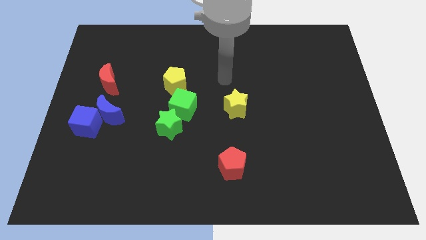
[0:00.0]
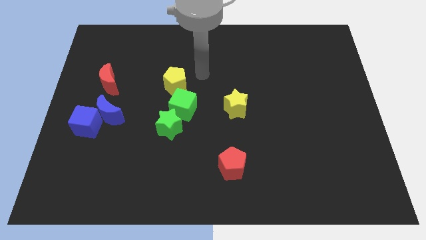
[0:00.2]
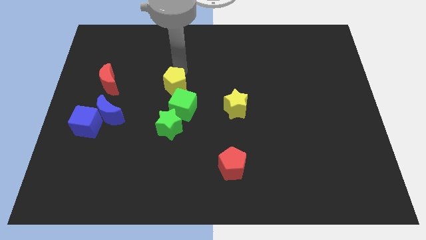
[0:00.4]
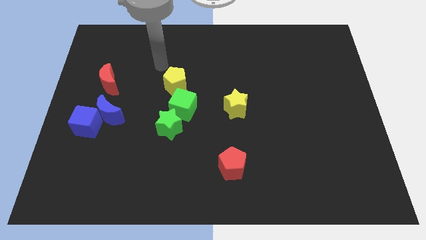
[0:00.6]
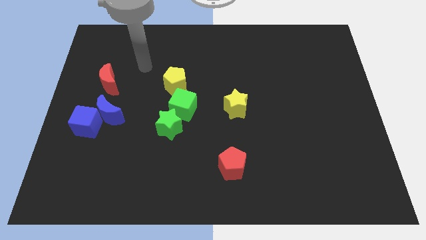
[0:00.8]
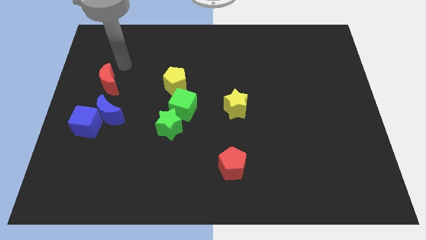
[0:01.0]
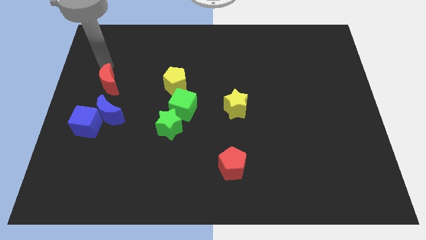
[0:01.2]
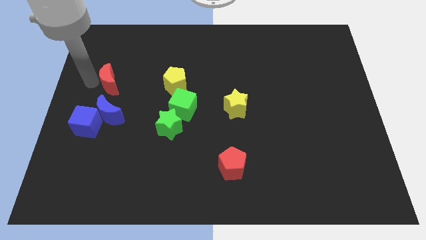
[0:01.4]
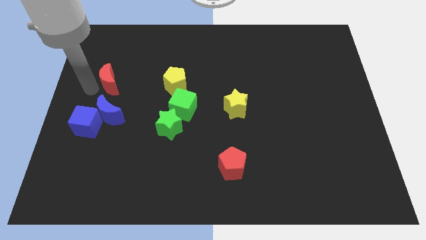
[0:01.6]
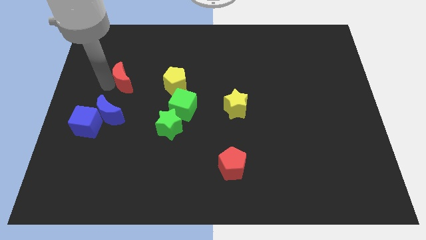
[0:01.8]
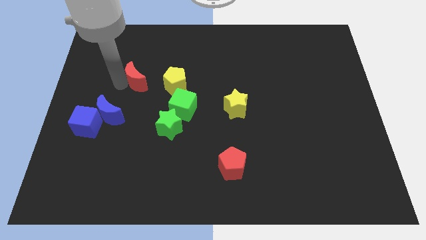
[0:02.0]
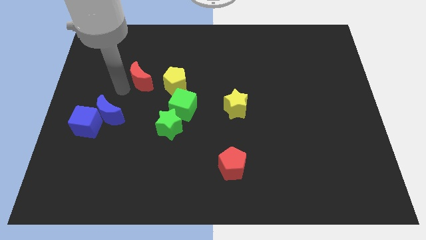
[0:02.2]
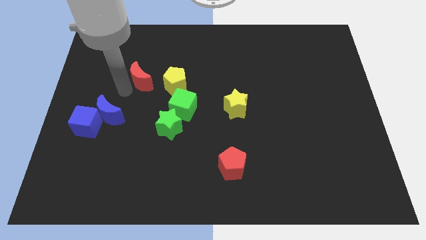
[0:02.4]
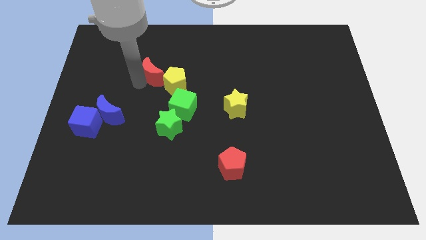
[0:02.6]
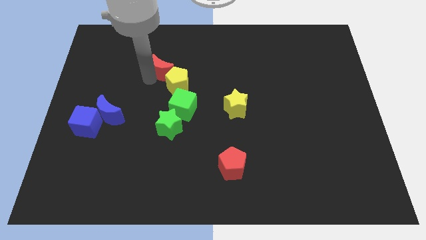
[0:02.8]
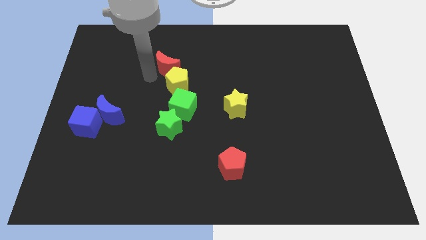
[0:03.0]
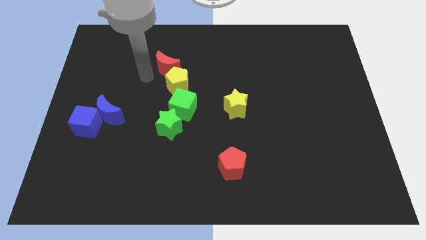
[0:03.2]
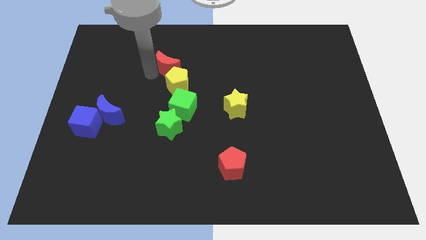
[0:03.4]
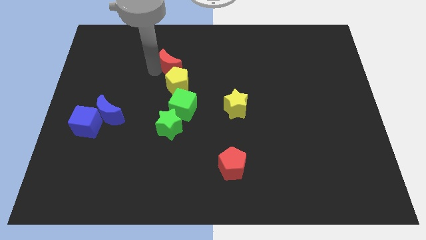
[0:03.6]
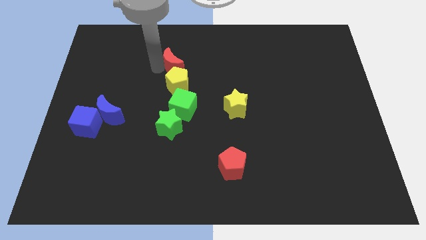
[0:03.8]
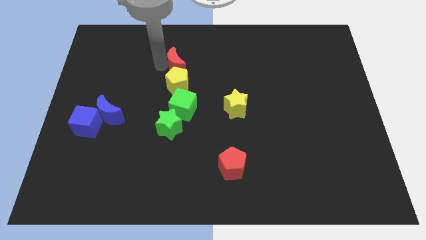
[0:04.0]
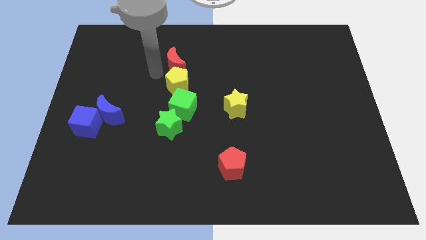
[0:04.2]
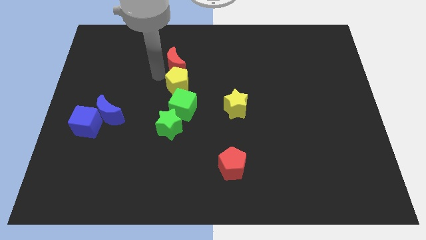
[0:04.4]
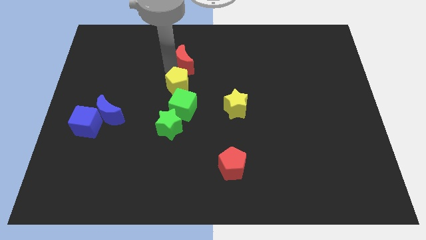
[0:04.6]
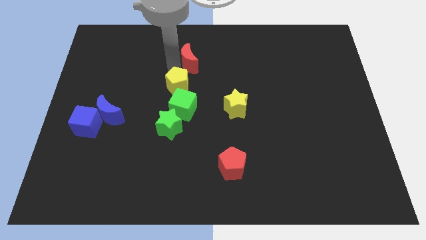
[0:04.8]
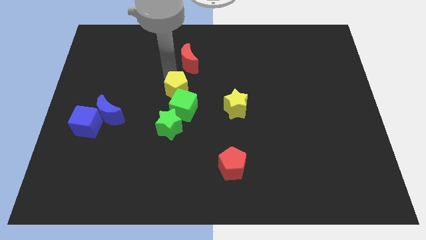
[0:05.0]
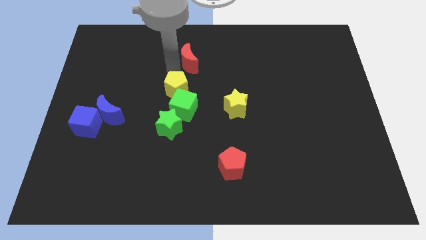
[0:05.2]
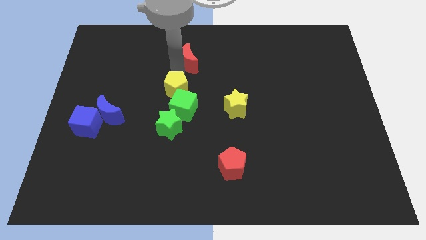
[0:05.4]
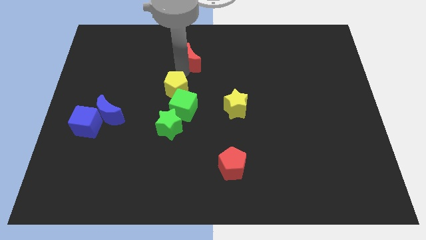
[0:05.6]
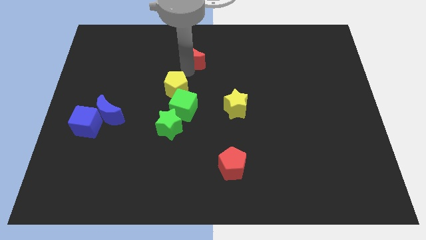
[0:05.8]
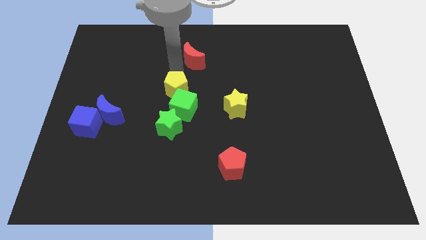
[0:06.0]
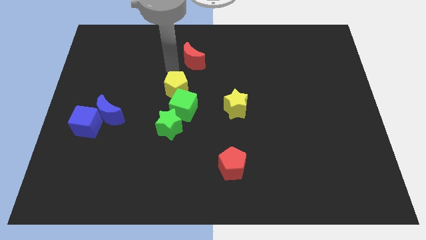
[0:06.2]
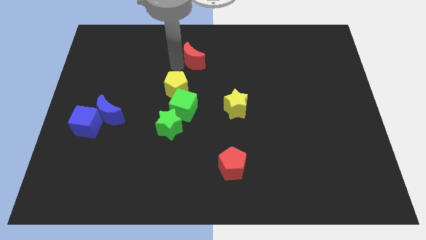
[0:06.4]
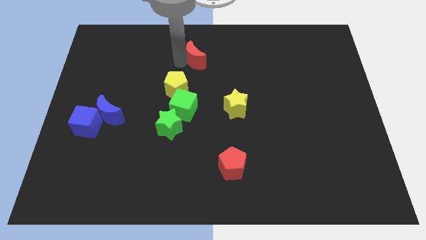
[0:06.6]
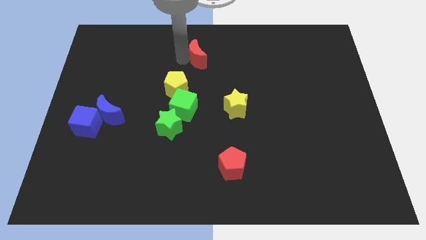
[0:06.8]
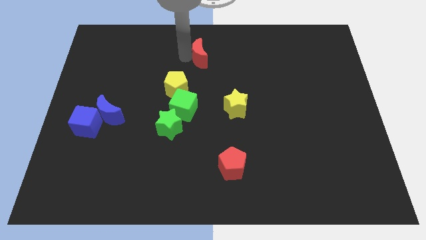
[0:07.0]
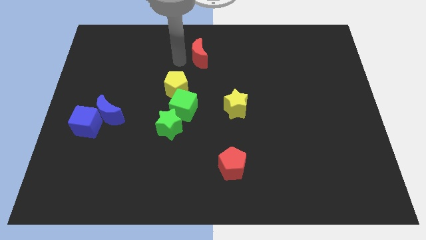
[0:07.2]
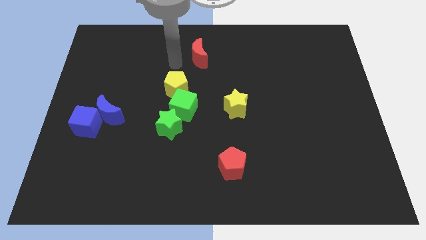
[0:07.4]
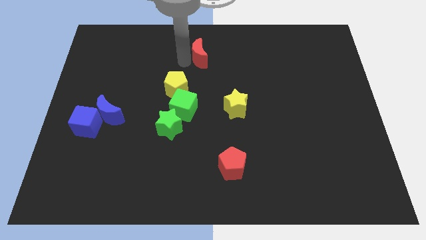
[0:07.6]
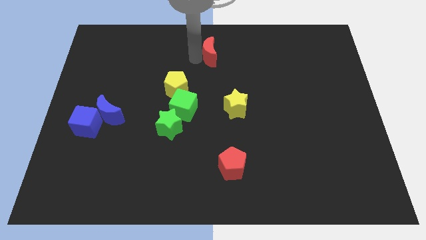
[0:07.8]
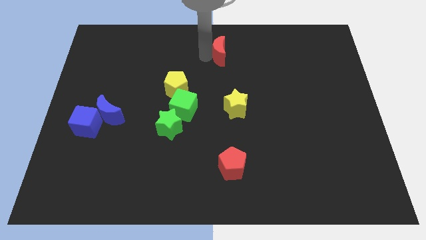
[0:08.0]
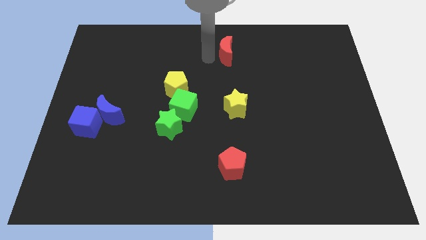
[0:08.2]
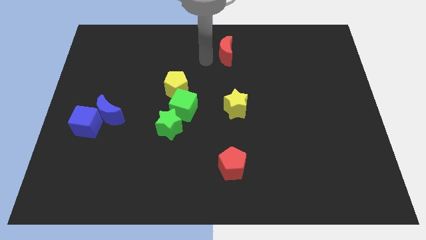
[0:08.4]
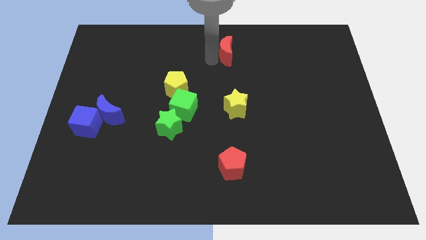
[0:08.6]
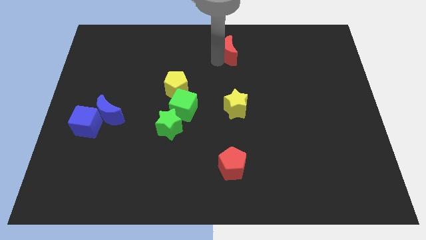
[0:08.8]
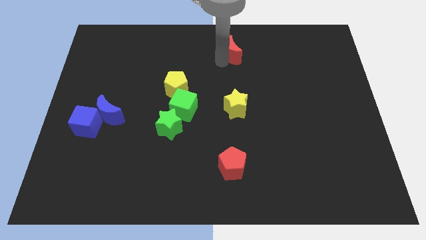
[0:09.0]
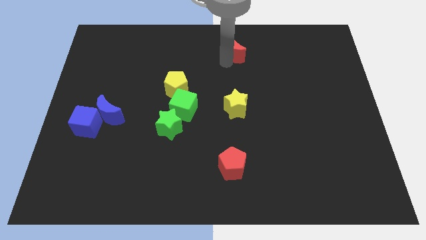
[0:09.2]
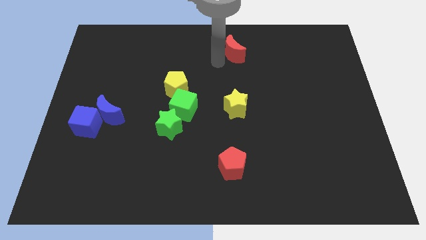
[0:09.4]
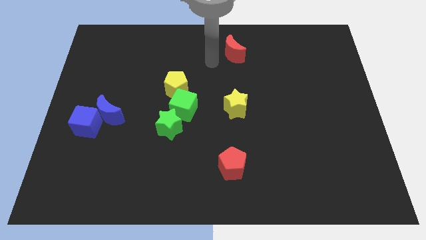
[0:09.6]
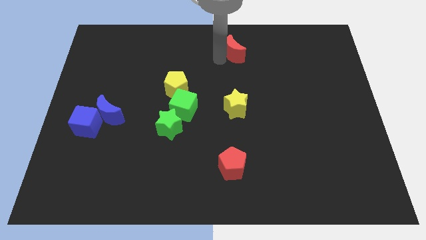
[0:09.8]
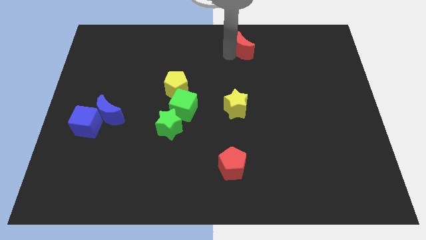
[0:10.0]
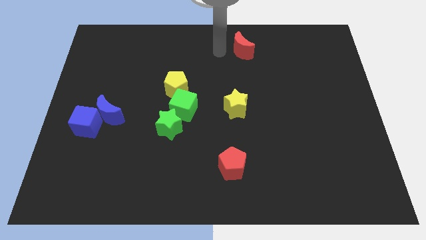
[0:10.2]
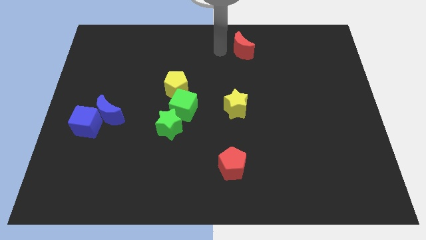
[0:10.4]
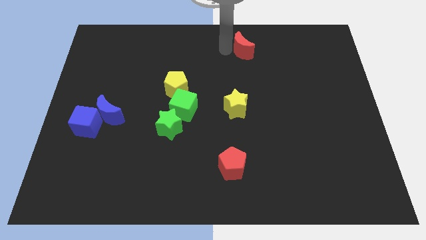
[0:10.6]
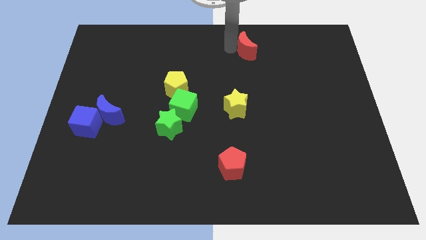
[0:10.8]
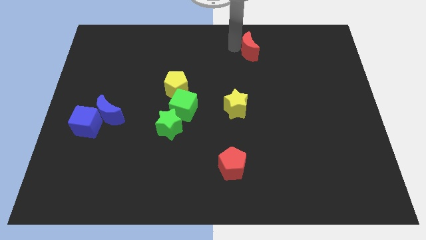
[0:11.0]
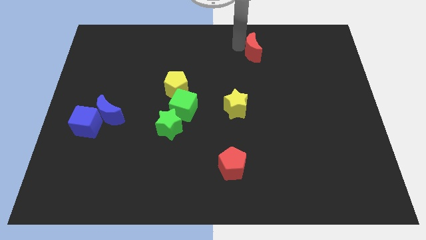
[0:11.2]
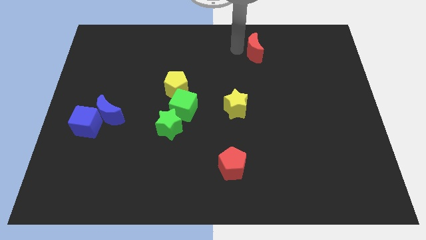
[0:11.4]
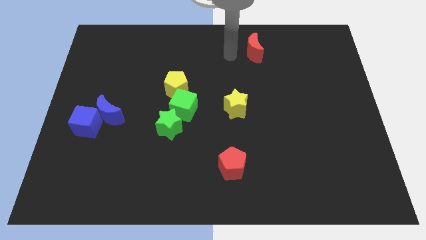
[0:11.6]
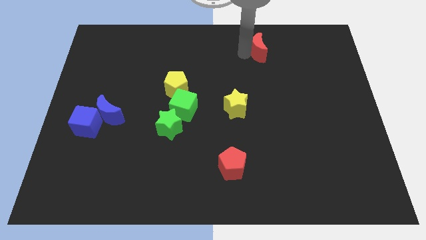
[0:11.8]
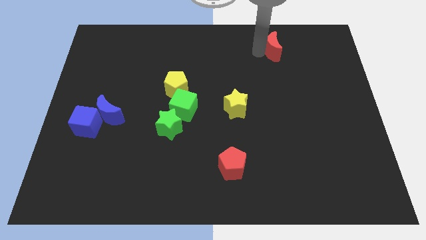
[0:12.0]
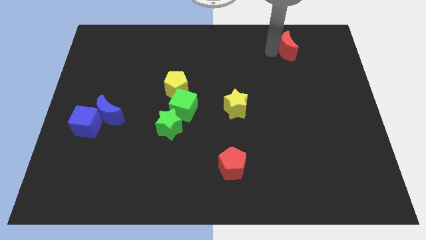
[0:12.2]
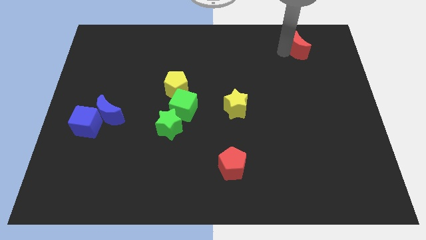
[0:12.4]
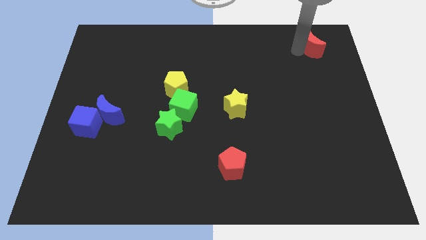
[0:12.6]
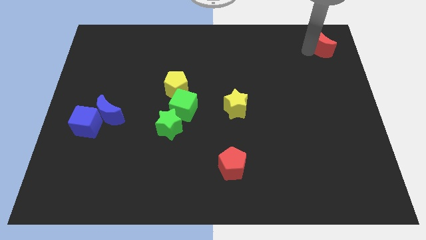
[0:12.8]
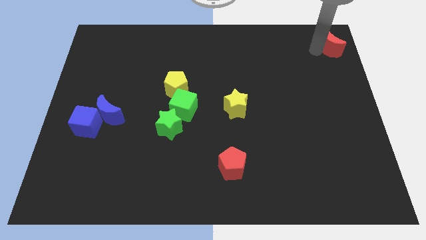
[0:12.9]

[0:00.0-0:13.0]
slide the red moon to the top right of the board

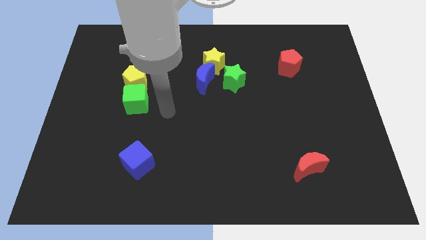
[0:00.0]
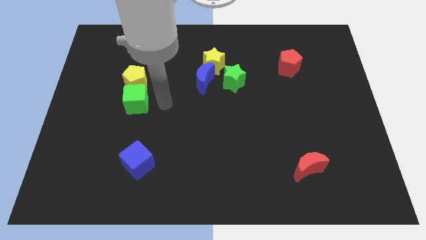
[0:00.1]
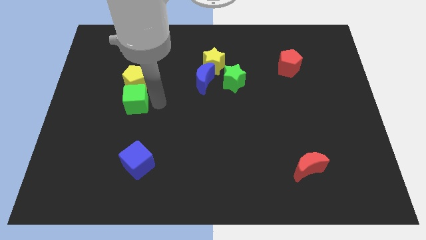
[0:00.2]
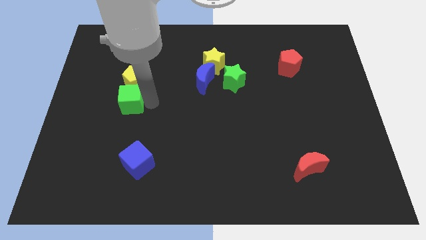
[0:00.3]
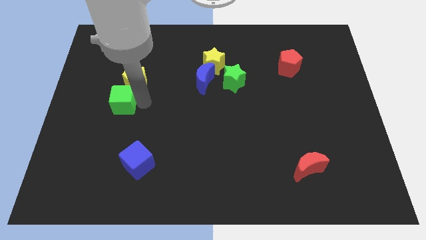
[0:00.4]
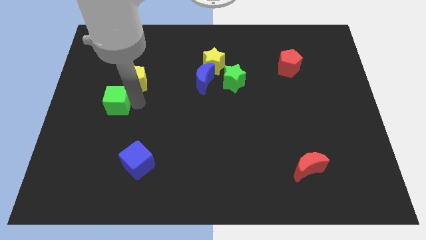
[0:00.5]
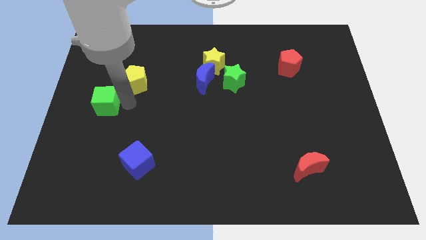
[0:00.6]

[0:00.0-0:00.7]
slide the green cube to the center left
